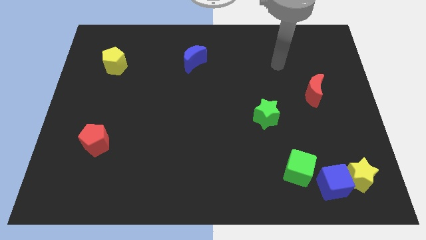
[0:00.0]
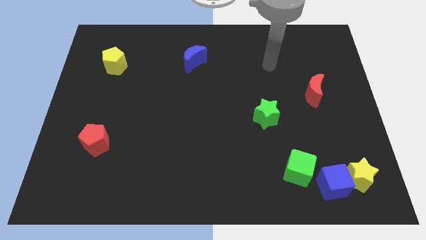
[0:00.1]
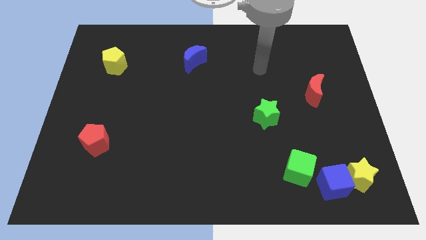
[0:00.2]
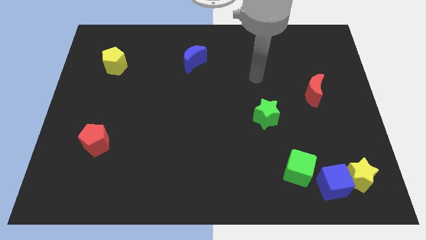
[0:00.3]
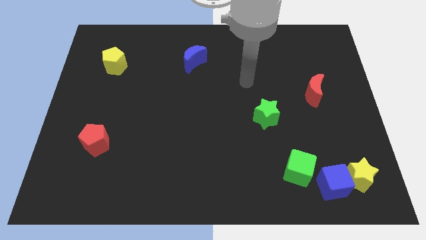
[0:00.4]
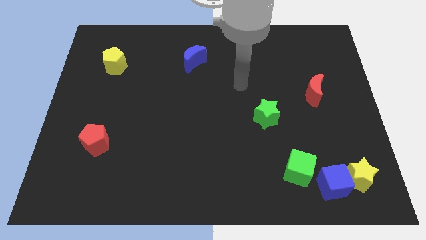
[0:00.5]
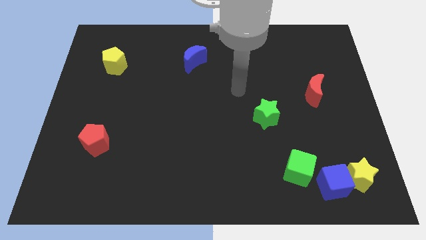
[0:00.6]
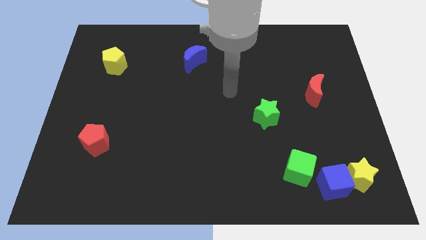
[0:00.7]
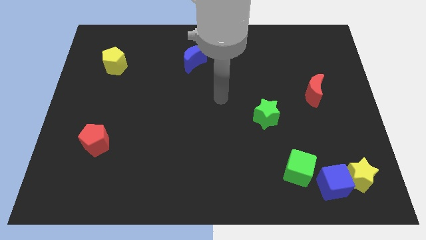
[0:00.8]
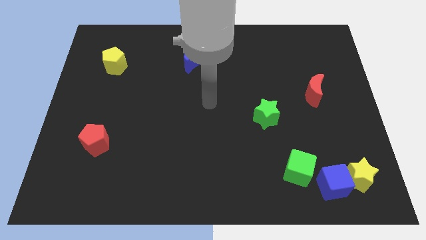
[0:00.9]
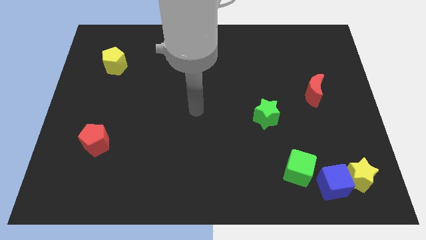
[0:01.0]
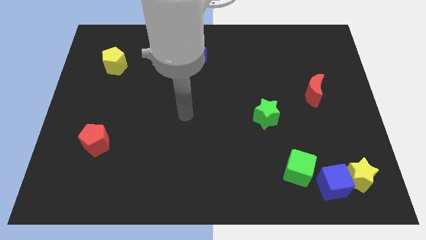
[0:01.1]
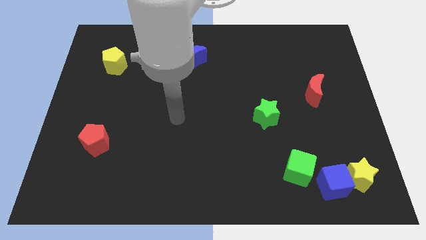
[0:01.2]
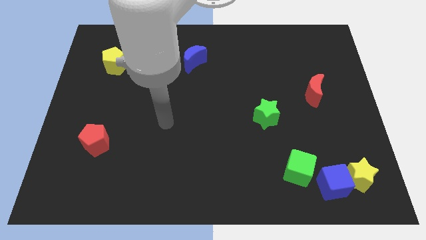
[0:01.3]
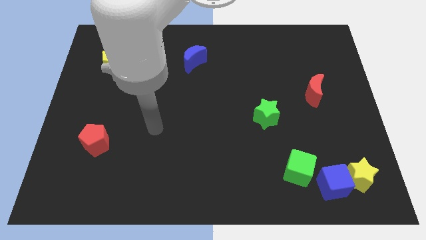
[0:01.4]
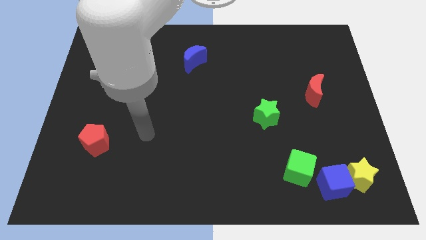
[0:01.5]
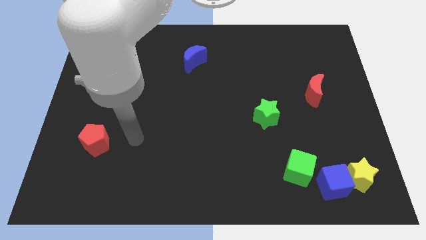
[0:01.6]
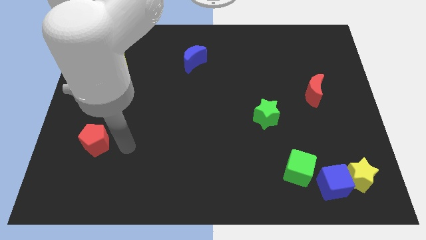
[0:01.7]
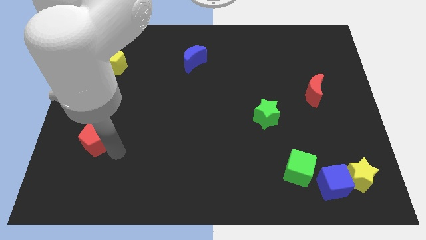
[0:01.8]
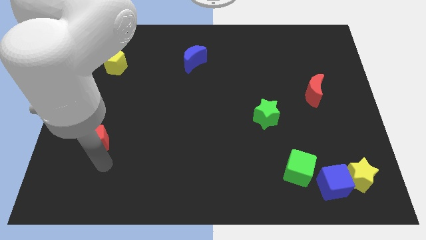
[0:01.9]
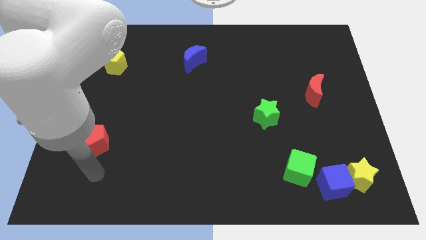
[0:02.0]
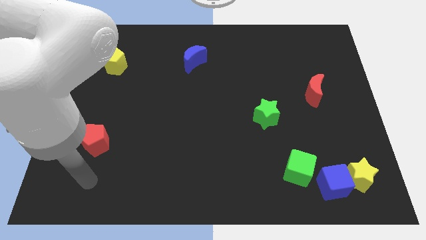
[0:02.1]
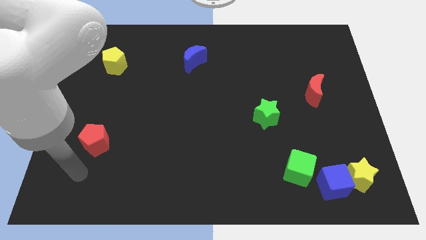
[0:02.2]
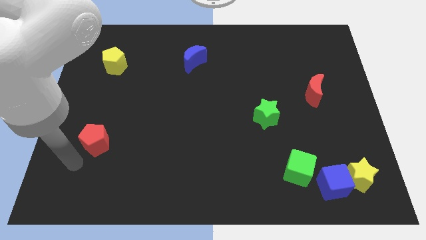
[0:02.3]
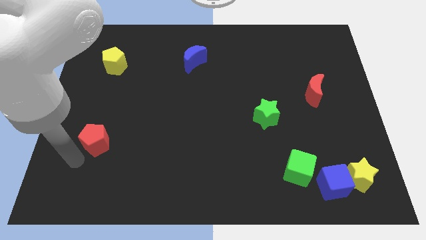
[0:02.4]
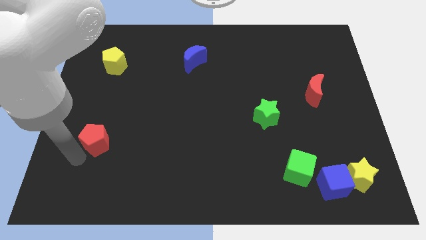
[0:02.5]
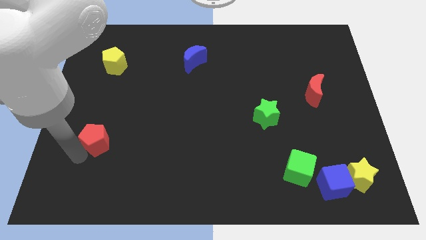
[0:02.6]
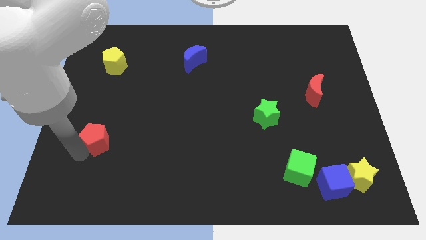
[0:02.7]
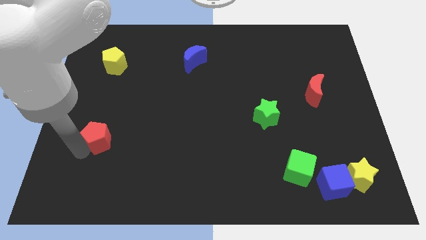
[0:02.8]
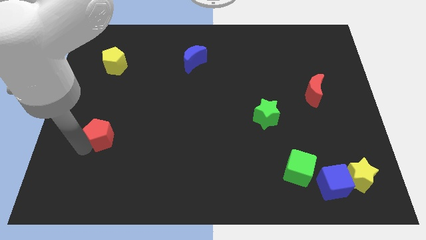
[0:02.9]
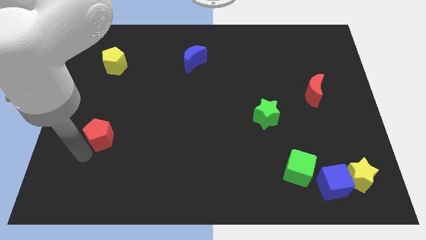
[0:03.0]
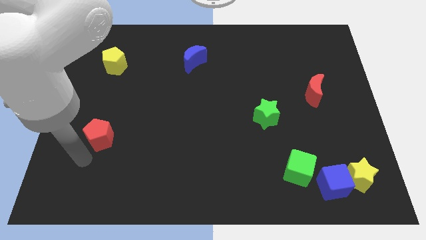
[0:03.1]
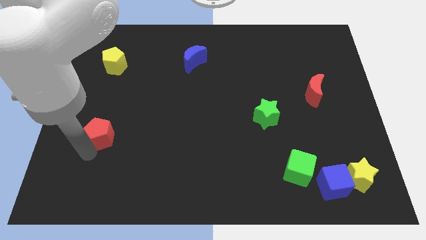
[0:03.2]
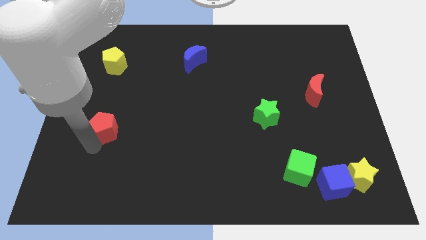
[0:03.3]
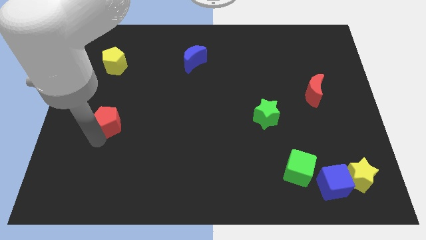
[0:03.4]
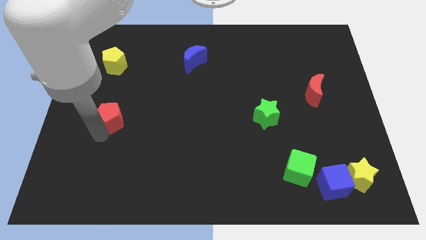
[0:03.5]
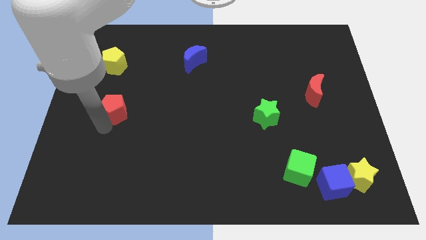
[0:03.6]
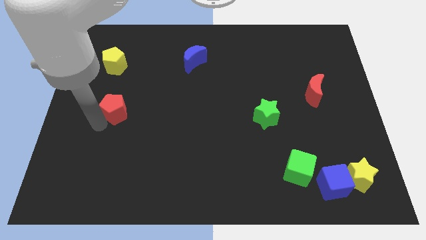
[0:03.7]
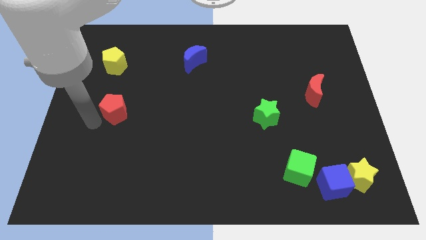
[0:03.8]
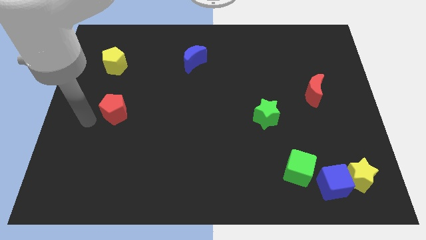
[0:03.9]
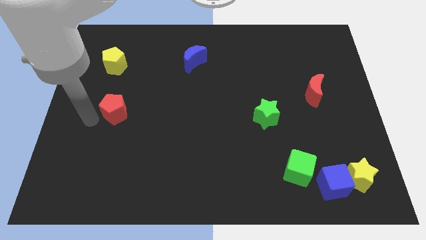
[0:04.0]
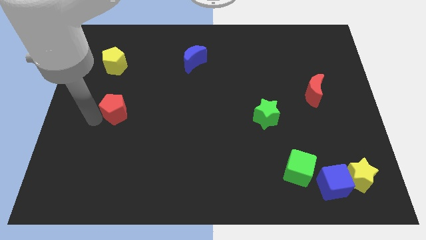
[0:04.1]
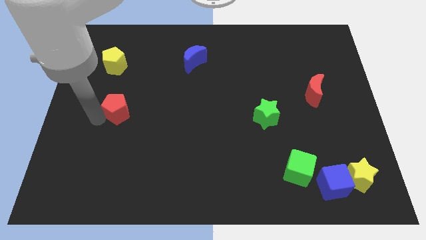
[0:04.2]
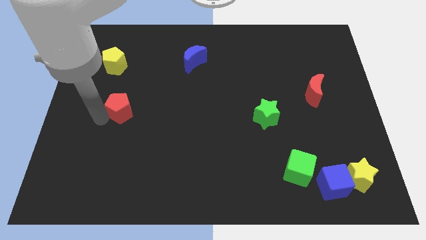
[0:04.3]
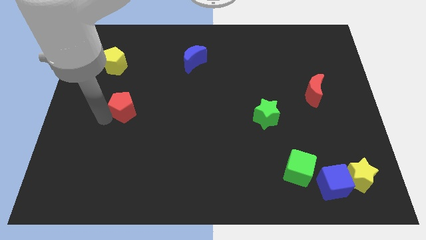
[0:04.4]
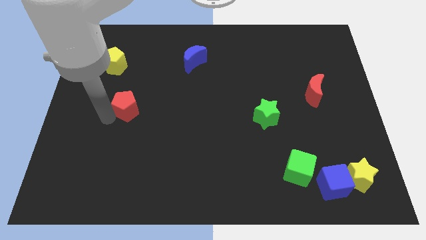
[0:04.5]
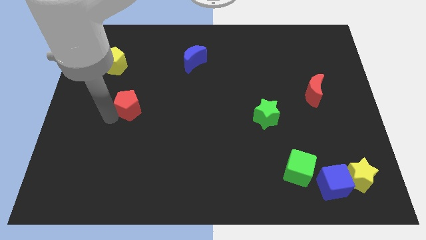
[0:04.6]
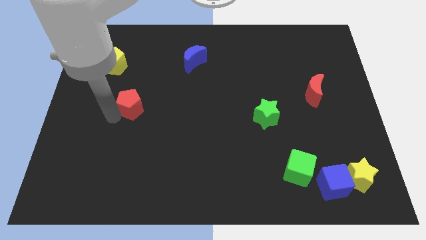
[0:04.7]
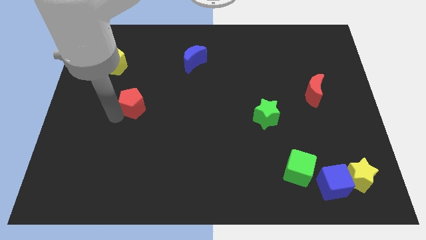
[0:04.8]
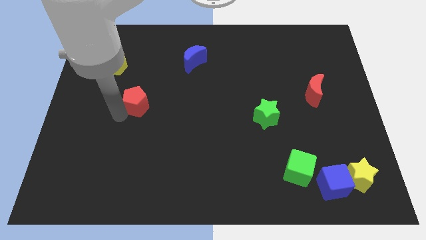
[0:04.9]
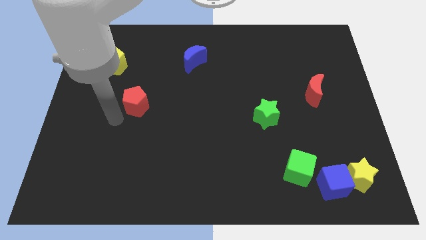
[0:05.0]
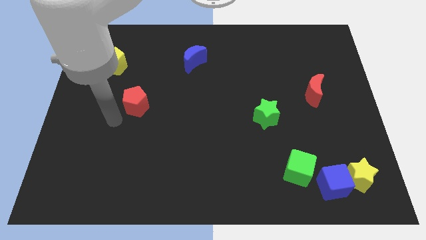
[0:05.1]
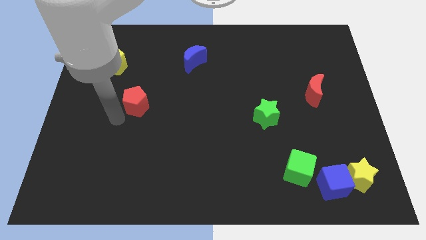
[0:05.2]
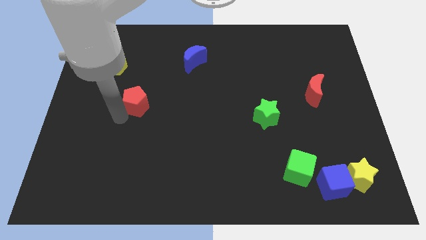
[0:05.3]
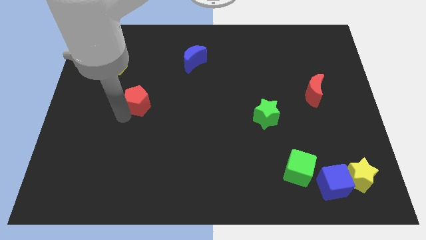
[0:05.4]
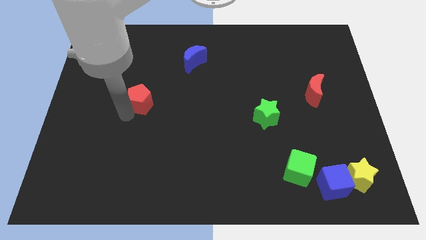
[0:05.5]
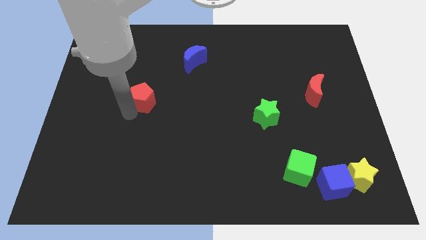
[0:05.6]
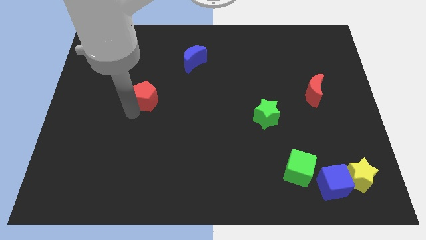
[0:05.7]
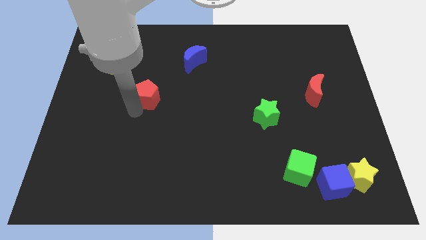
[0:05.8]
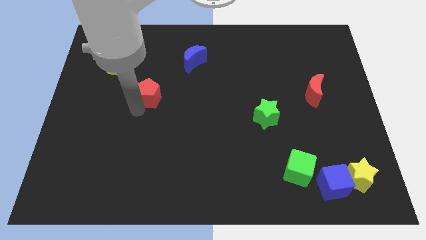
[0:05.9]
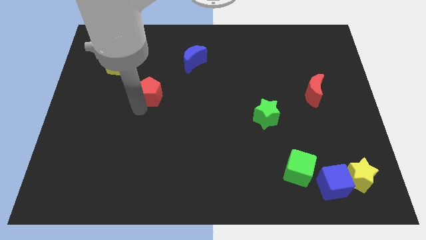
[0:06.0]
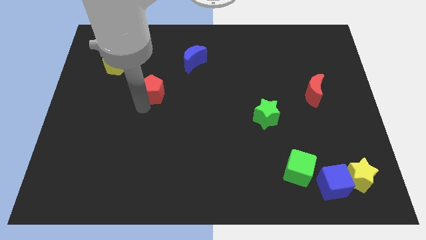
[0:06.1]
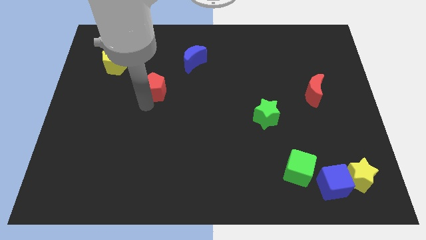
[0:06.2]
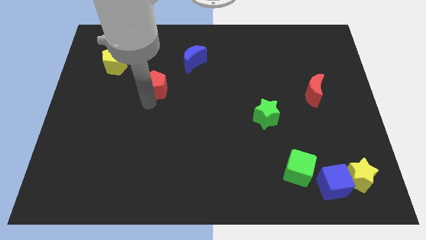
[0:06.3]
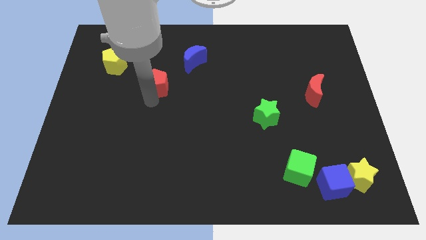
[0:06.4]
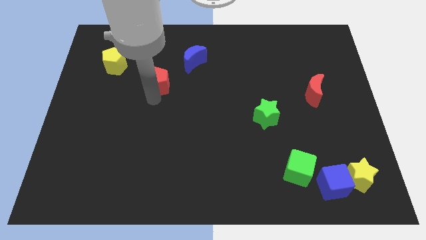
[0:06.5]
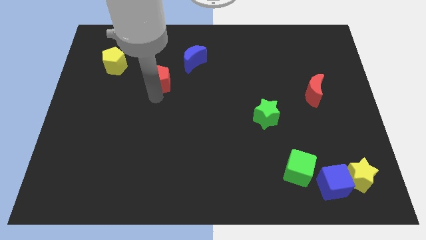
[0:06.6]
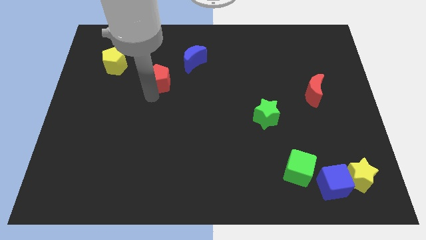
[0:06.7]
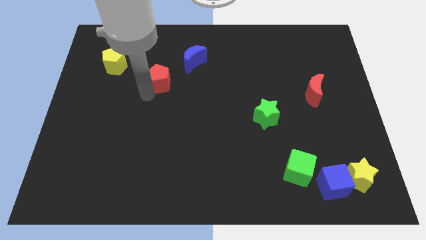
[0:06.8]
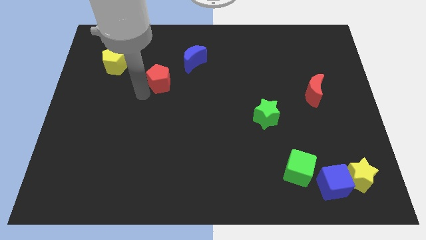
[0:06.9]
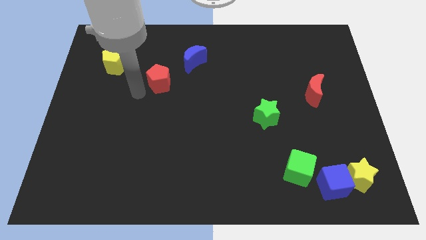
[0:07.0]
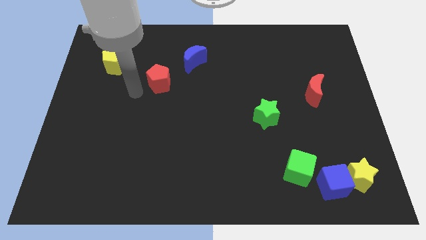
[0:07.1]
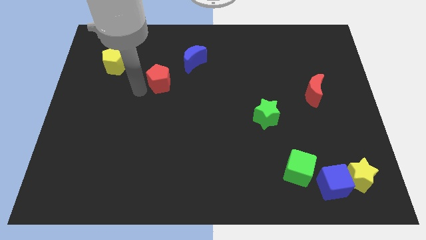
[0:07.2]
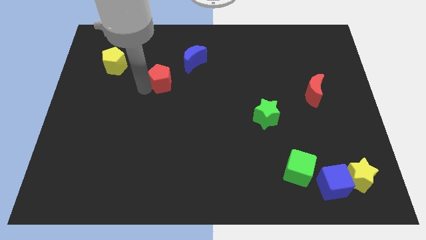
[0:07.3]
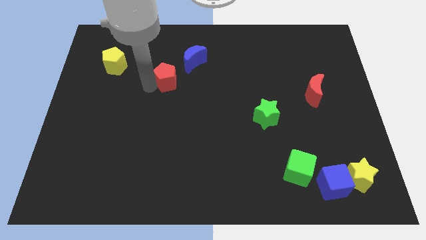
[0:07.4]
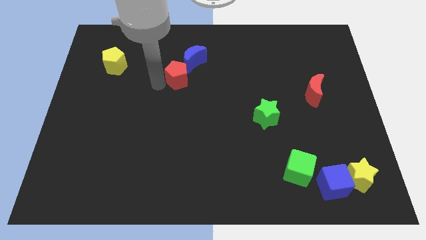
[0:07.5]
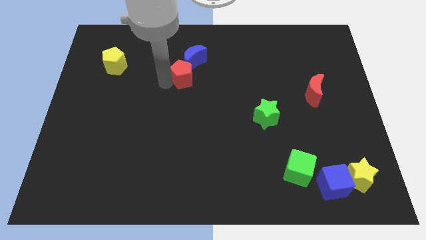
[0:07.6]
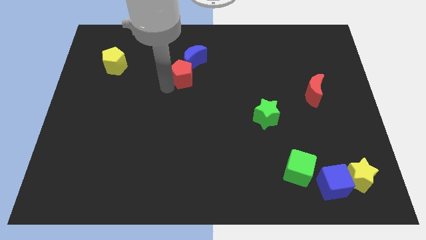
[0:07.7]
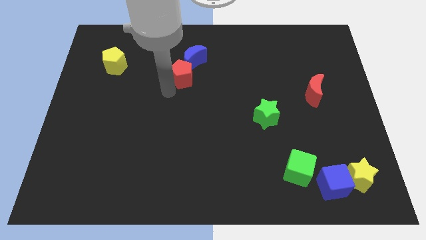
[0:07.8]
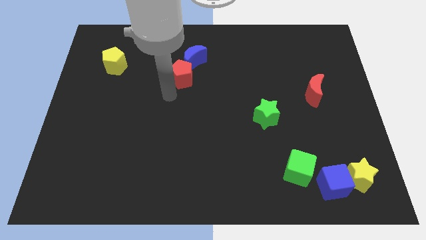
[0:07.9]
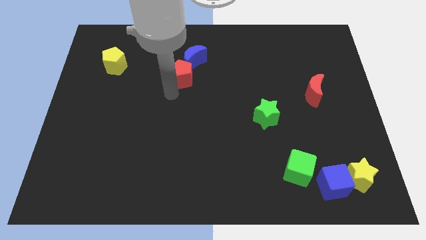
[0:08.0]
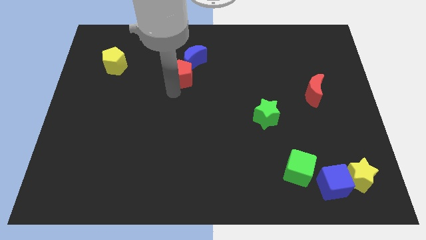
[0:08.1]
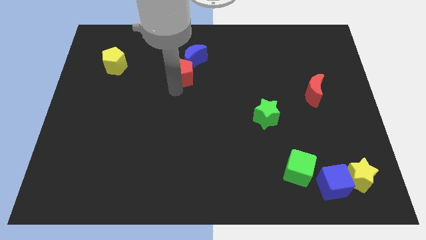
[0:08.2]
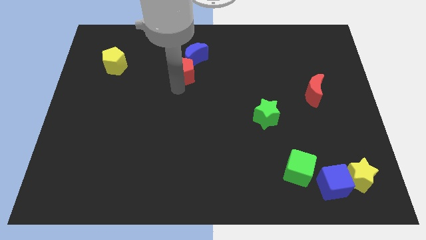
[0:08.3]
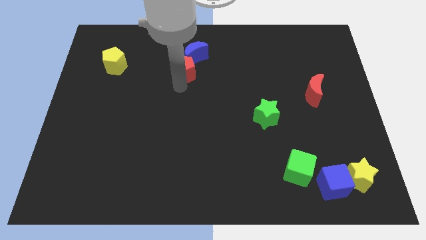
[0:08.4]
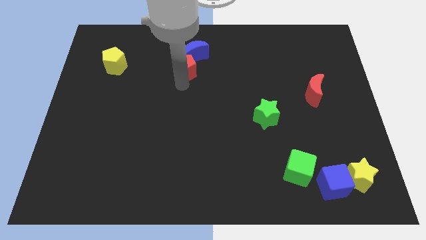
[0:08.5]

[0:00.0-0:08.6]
put the red pentagon to the blue moon
